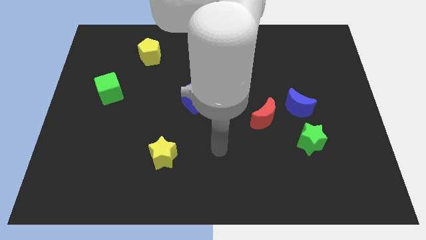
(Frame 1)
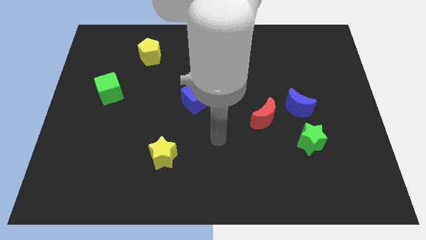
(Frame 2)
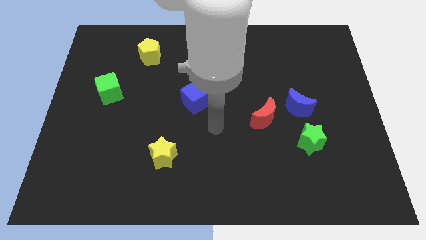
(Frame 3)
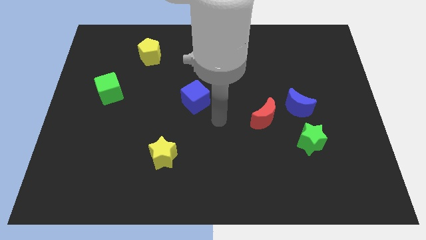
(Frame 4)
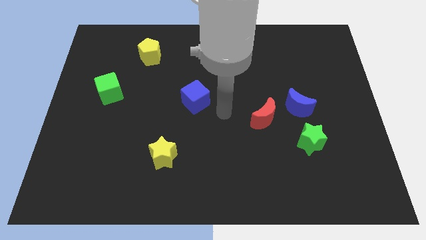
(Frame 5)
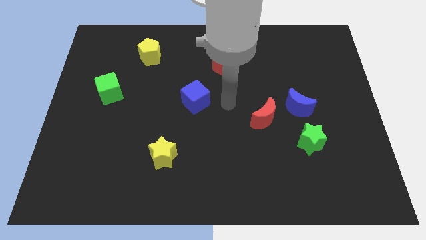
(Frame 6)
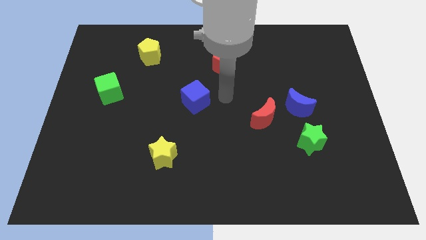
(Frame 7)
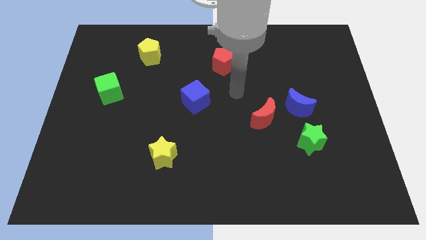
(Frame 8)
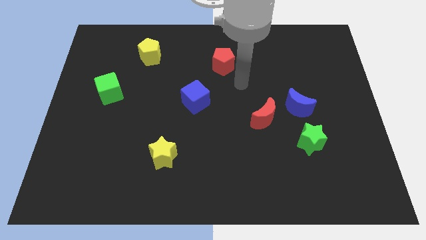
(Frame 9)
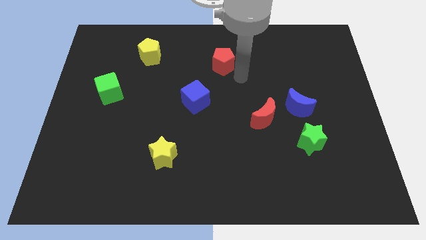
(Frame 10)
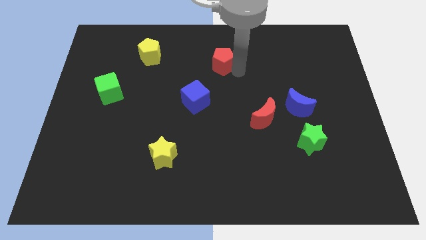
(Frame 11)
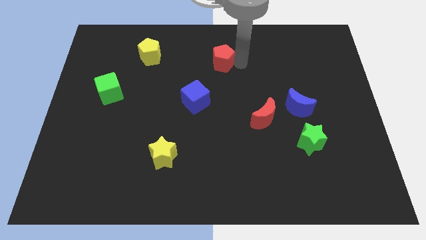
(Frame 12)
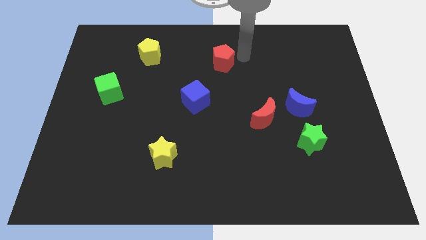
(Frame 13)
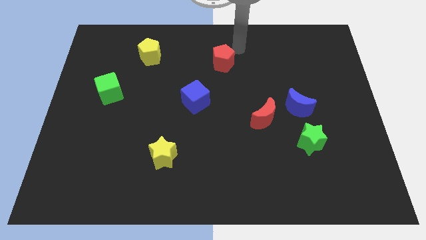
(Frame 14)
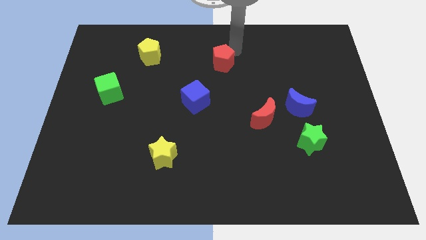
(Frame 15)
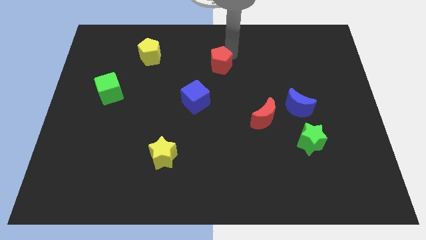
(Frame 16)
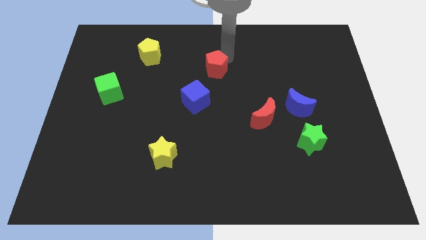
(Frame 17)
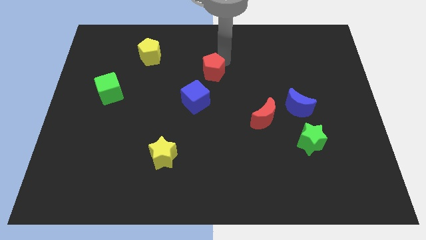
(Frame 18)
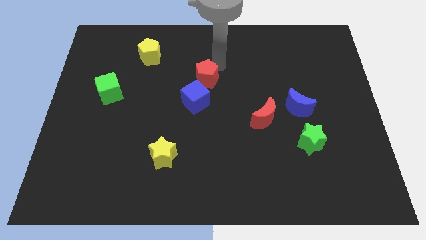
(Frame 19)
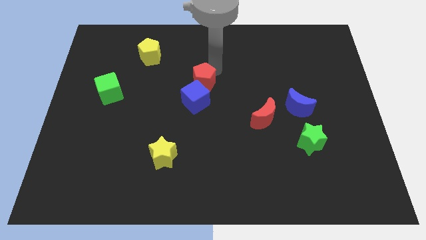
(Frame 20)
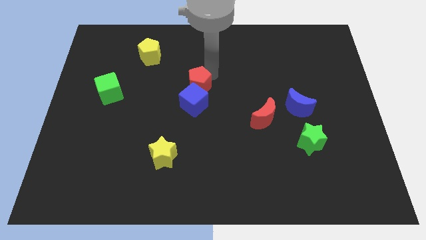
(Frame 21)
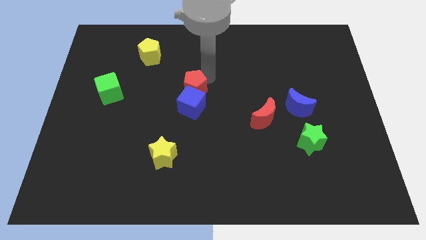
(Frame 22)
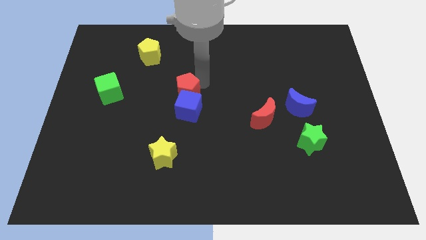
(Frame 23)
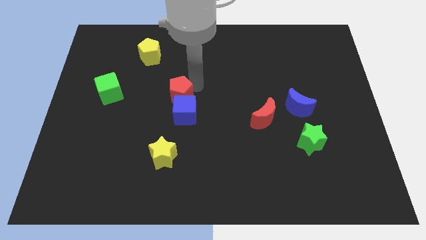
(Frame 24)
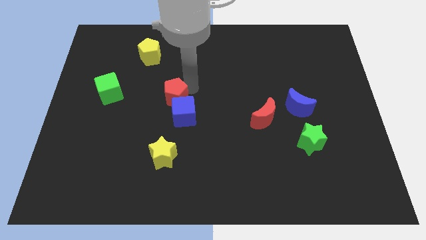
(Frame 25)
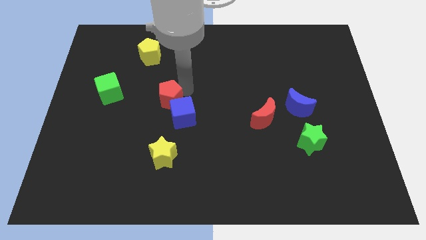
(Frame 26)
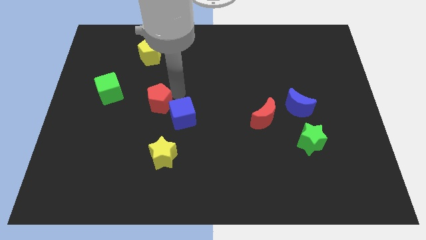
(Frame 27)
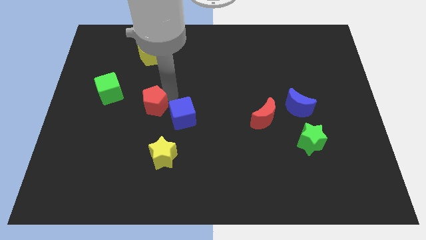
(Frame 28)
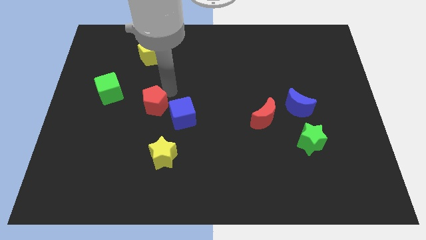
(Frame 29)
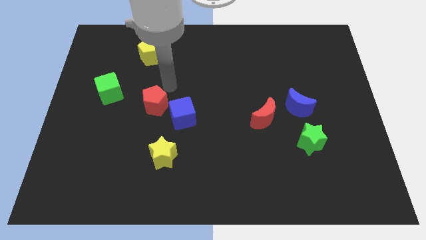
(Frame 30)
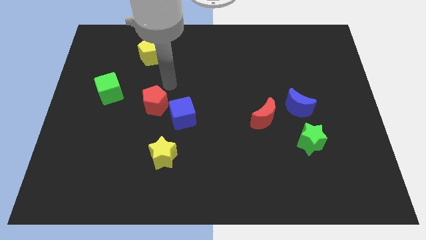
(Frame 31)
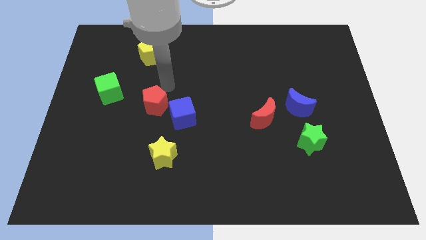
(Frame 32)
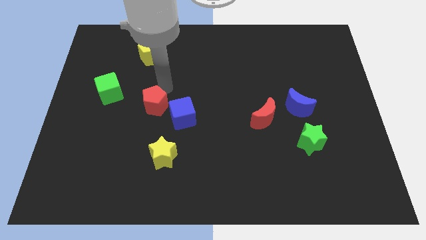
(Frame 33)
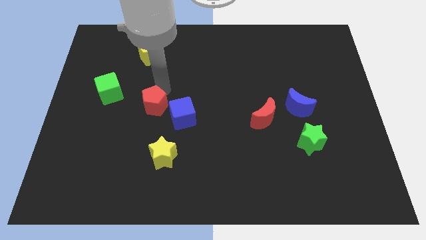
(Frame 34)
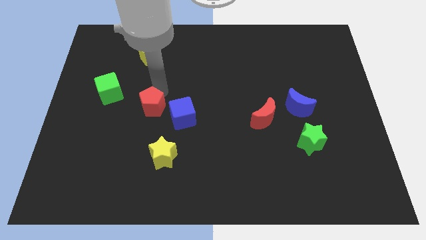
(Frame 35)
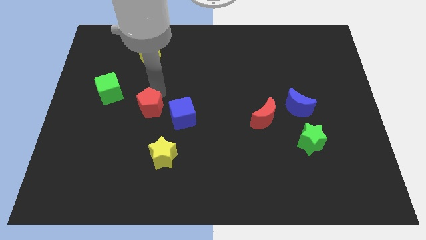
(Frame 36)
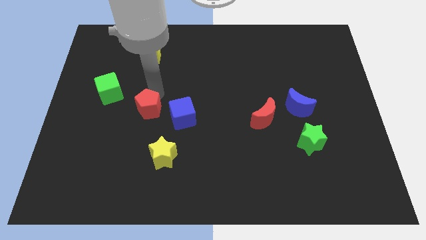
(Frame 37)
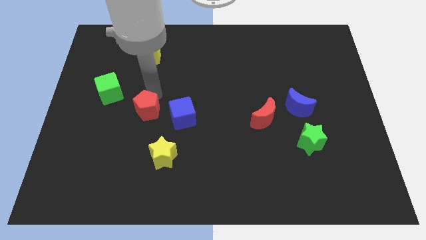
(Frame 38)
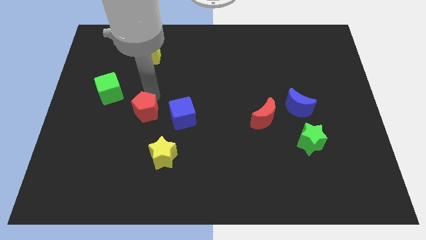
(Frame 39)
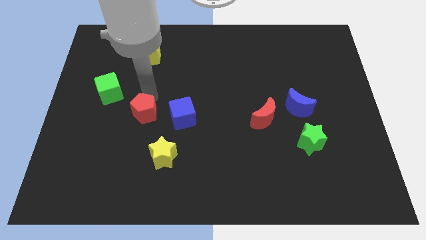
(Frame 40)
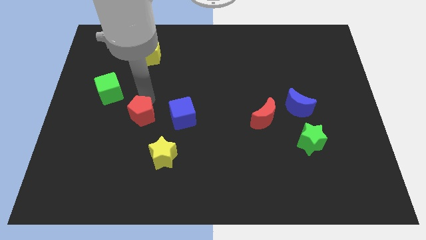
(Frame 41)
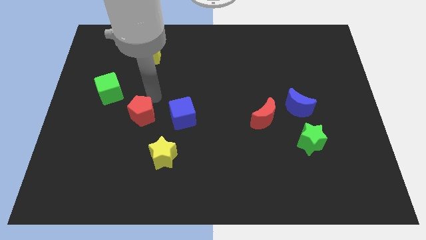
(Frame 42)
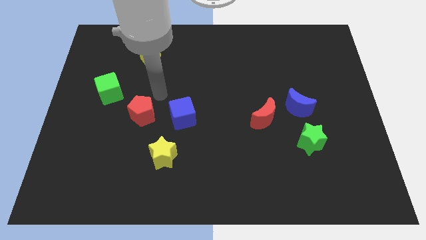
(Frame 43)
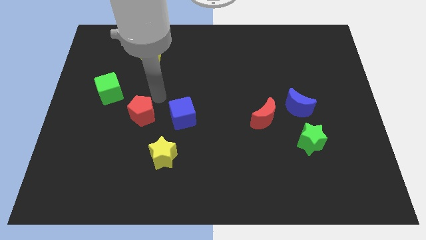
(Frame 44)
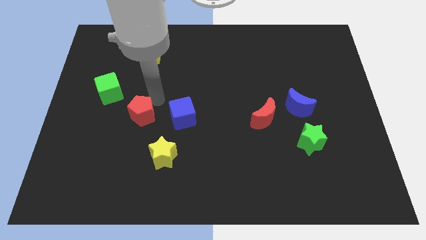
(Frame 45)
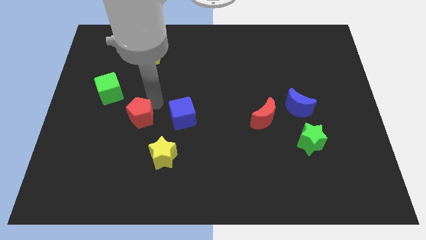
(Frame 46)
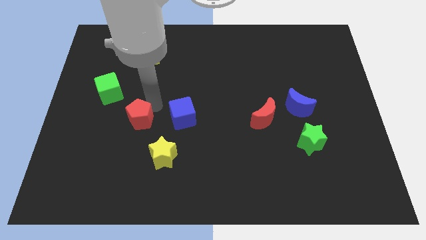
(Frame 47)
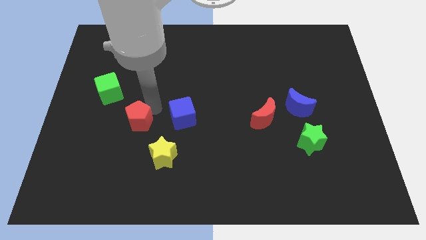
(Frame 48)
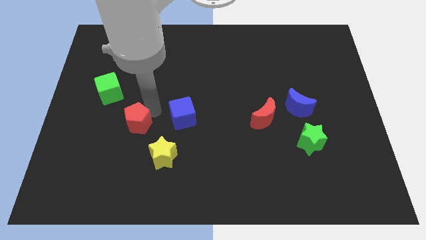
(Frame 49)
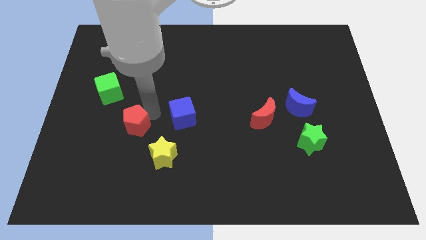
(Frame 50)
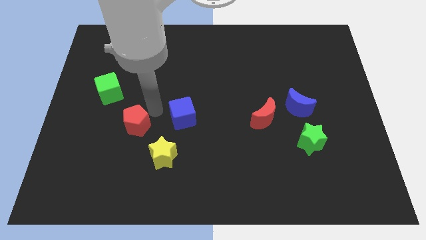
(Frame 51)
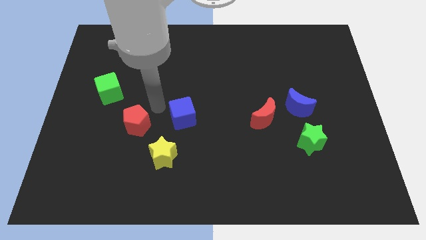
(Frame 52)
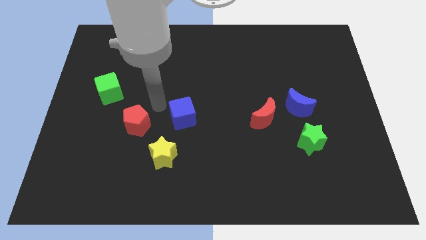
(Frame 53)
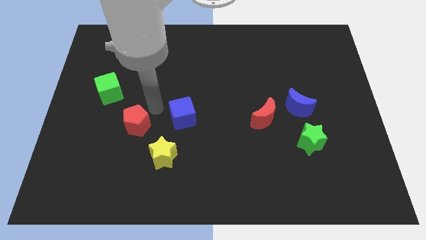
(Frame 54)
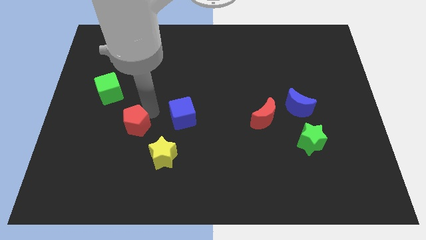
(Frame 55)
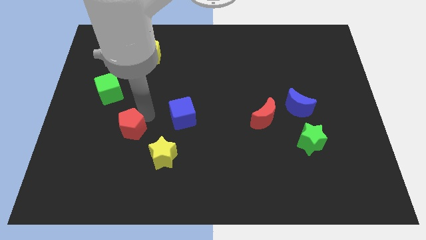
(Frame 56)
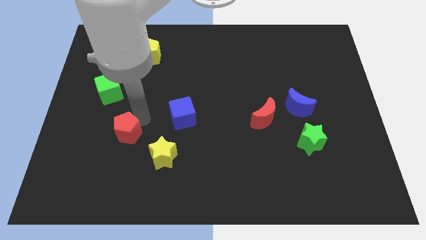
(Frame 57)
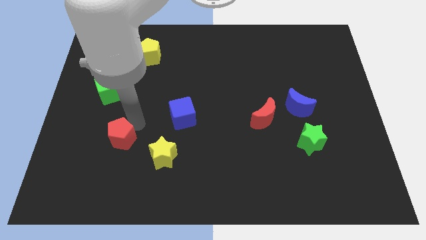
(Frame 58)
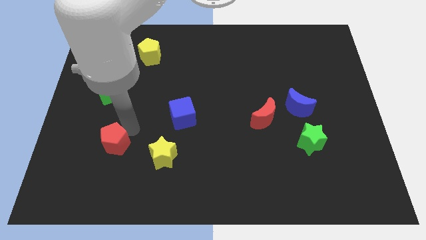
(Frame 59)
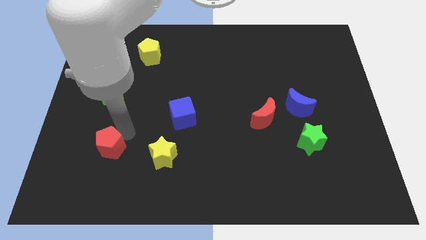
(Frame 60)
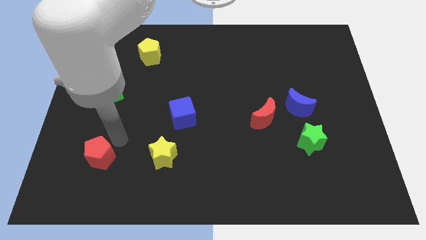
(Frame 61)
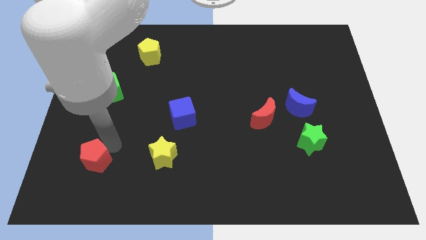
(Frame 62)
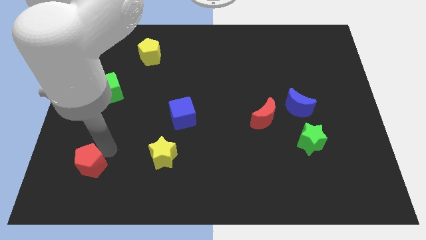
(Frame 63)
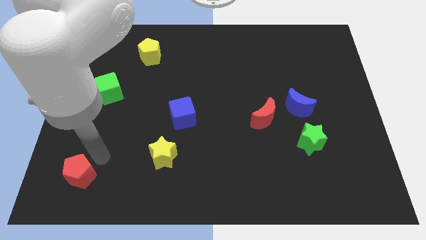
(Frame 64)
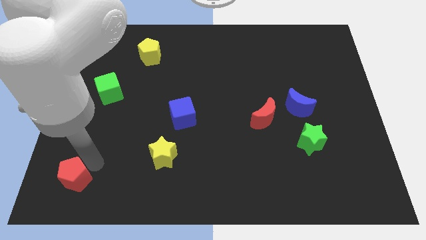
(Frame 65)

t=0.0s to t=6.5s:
put the red pentagon to the bottom left of the board
